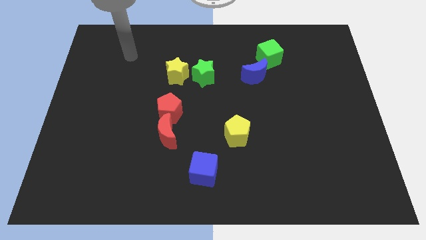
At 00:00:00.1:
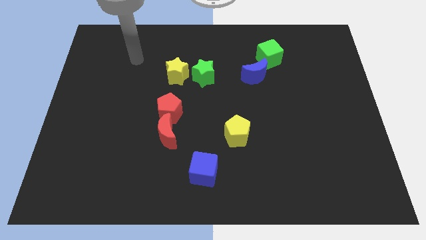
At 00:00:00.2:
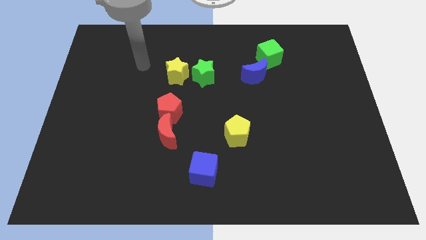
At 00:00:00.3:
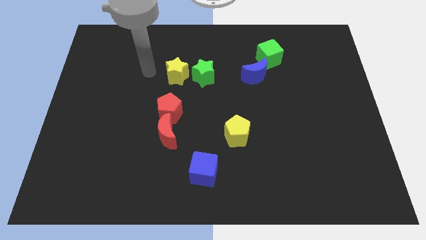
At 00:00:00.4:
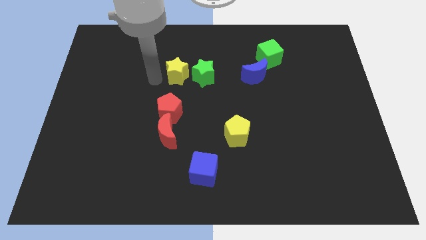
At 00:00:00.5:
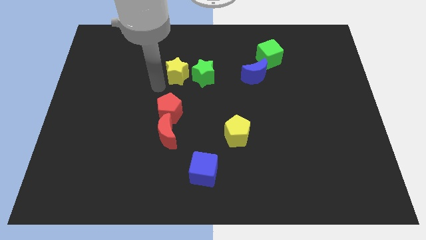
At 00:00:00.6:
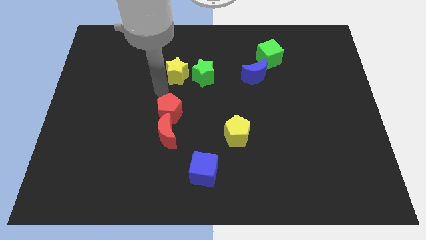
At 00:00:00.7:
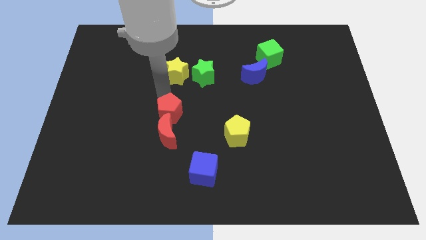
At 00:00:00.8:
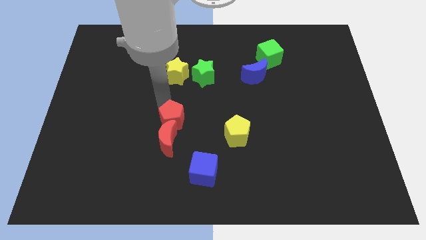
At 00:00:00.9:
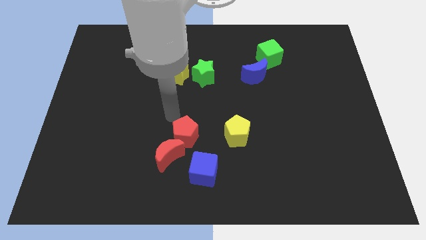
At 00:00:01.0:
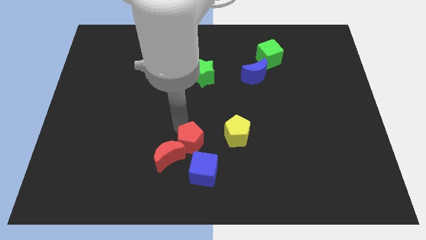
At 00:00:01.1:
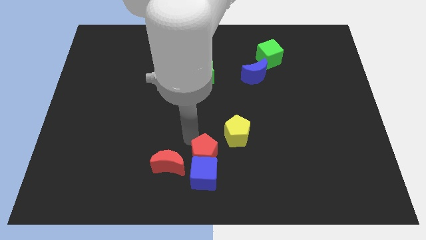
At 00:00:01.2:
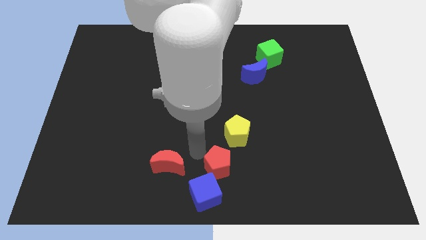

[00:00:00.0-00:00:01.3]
move the red moon away from the red pentagon

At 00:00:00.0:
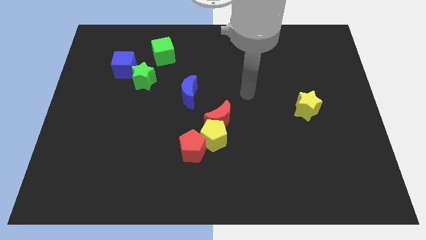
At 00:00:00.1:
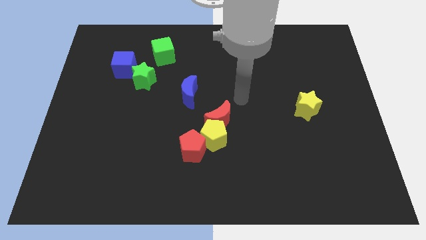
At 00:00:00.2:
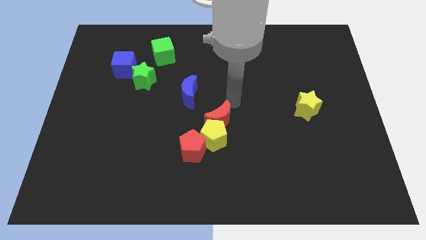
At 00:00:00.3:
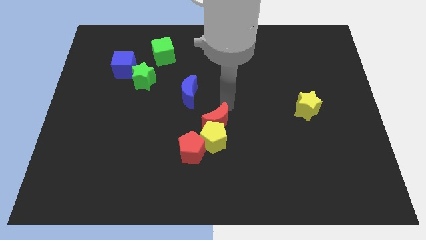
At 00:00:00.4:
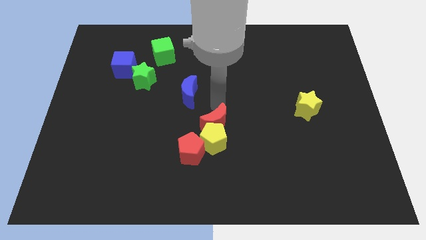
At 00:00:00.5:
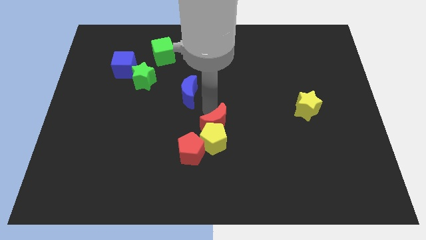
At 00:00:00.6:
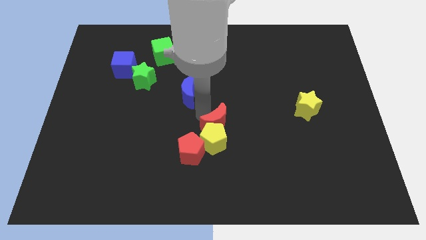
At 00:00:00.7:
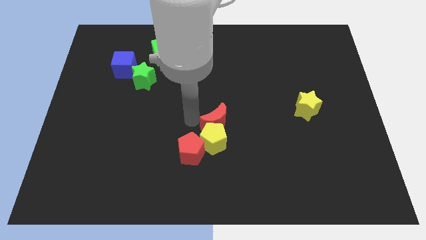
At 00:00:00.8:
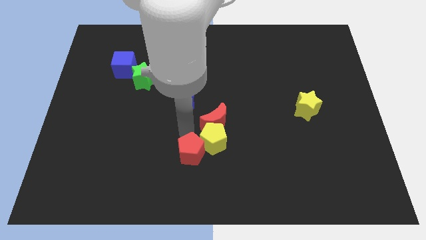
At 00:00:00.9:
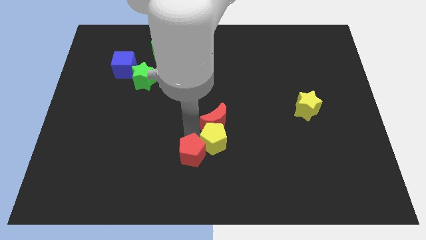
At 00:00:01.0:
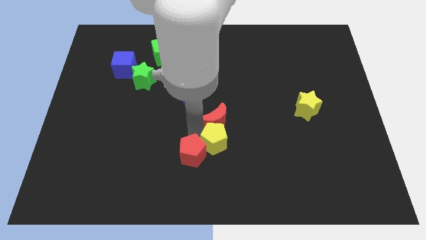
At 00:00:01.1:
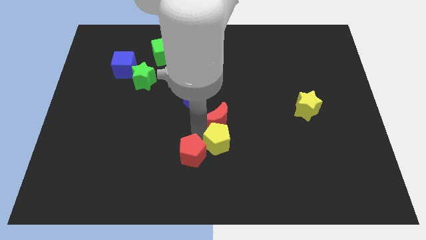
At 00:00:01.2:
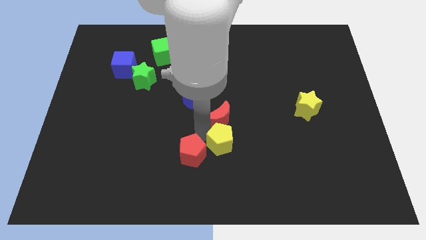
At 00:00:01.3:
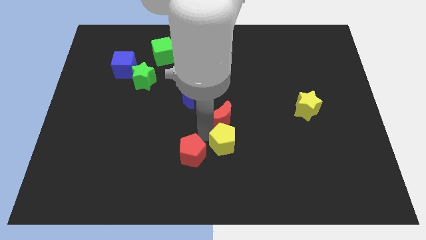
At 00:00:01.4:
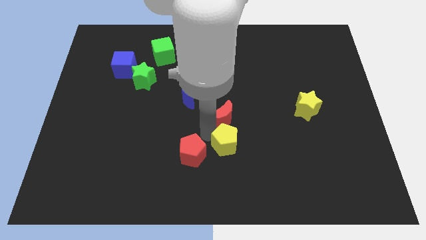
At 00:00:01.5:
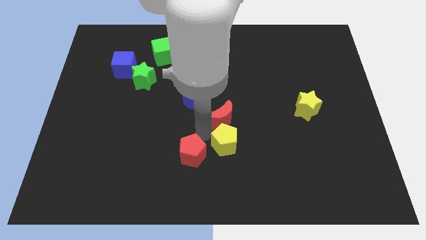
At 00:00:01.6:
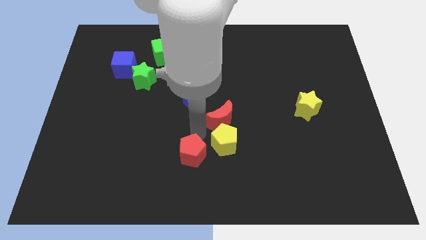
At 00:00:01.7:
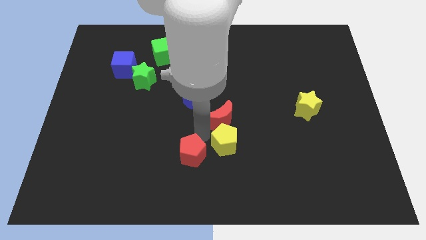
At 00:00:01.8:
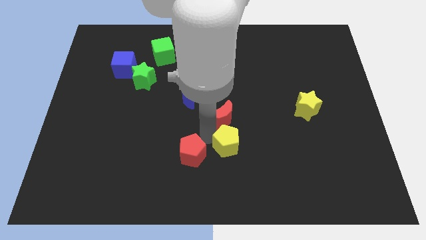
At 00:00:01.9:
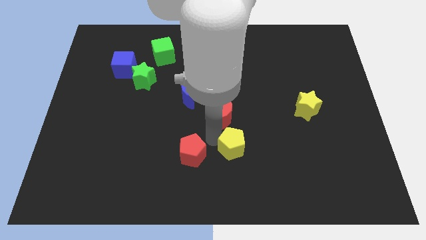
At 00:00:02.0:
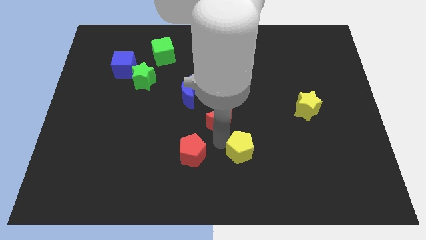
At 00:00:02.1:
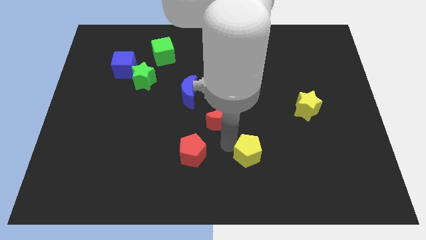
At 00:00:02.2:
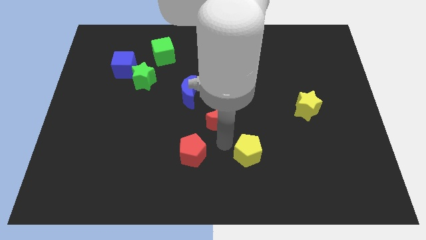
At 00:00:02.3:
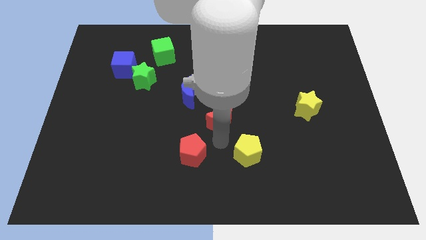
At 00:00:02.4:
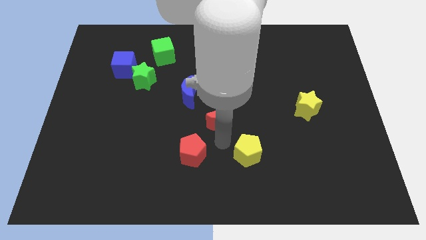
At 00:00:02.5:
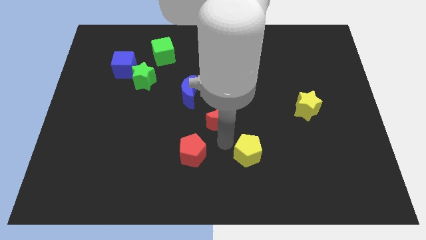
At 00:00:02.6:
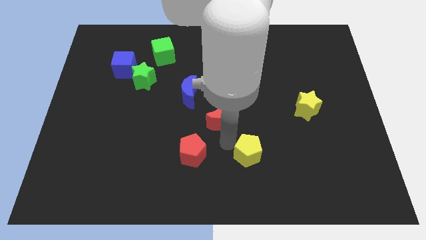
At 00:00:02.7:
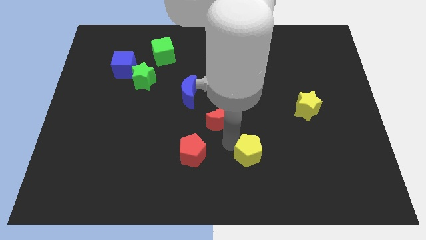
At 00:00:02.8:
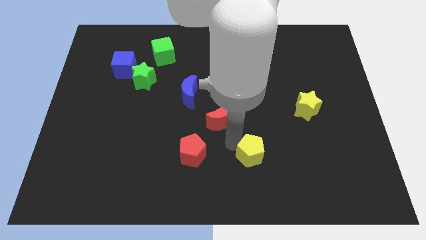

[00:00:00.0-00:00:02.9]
separate the yellow pentagon from the red moon and red pentagon

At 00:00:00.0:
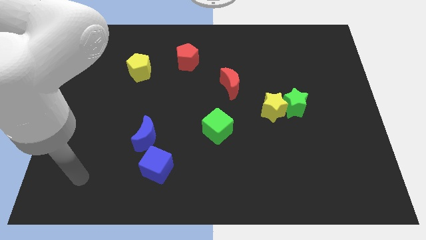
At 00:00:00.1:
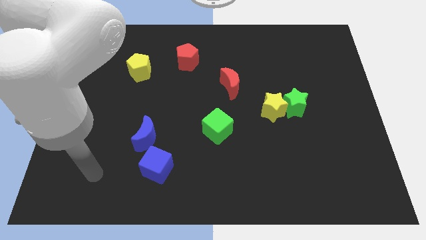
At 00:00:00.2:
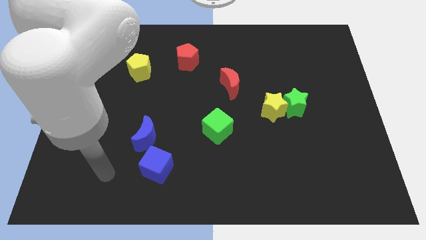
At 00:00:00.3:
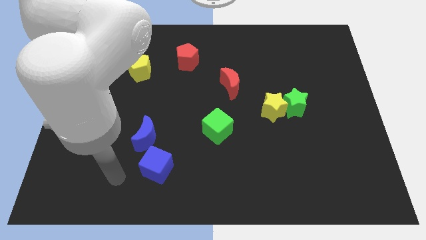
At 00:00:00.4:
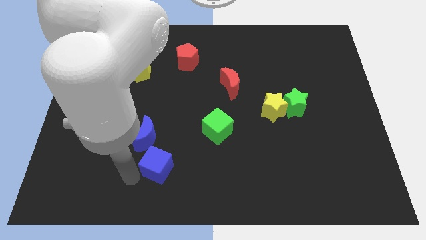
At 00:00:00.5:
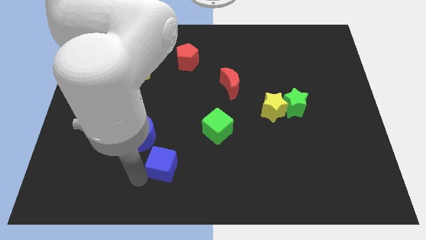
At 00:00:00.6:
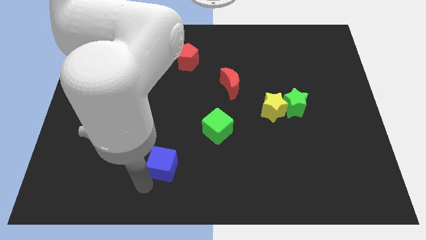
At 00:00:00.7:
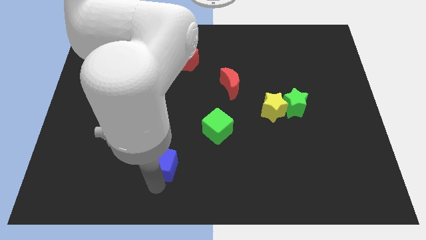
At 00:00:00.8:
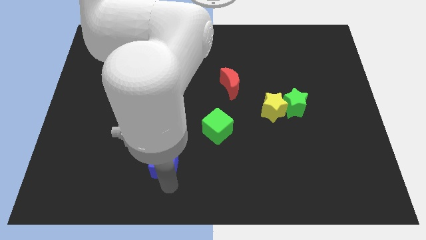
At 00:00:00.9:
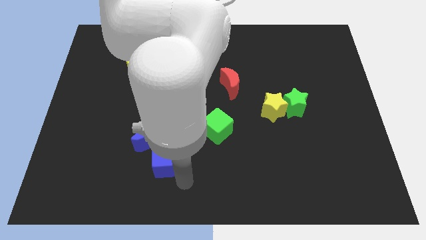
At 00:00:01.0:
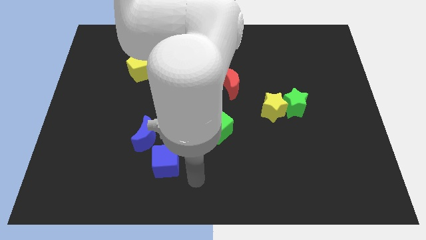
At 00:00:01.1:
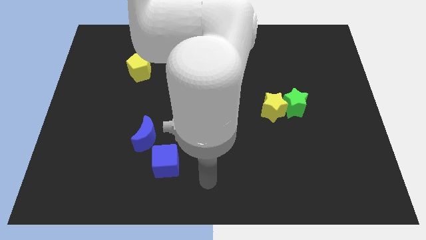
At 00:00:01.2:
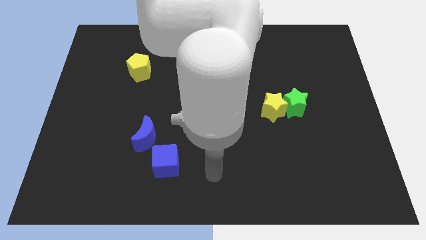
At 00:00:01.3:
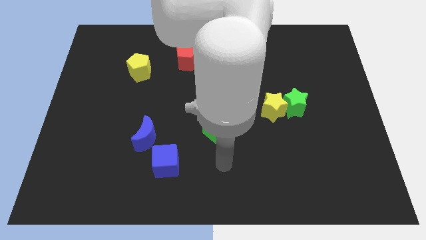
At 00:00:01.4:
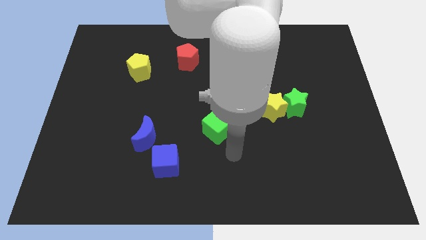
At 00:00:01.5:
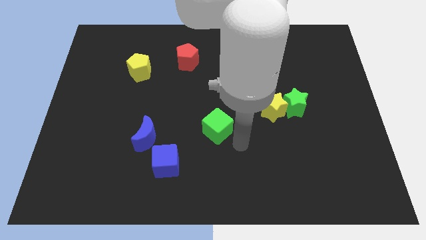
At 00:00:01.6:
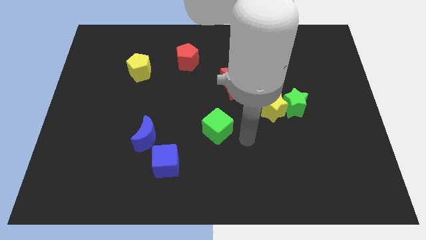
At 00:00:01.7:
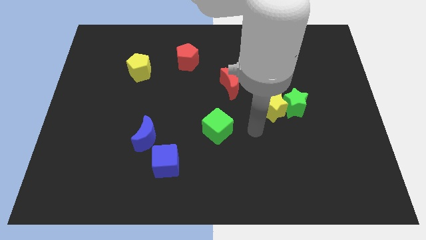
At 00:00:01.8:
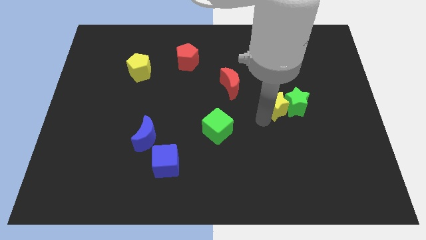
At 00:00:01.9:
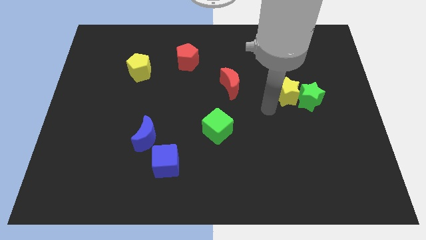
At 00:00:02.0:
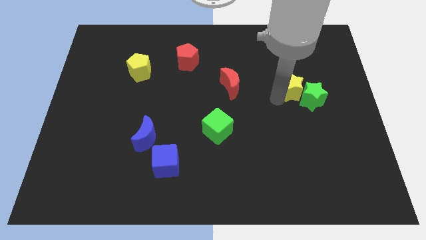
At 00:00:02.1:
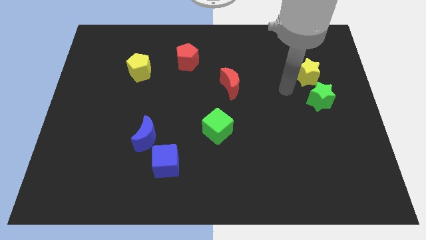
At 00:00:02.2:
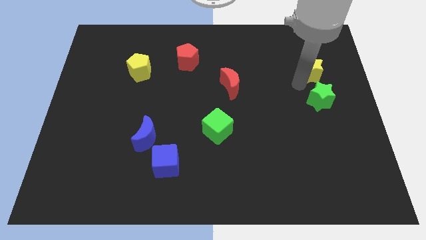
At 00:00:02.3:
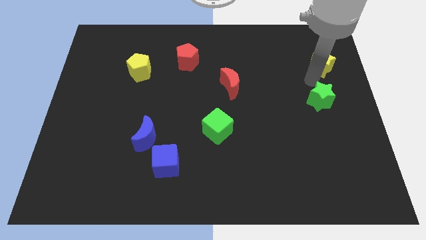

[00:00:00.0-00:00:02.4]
move the green star away from the yellow star

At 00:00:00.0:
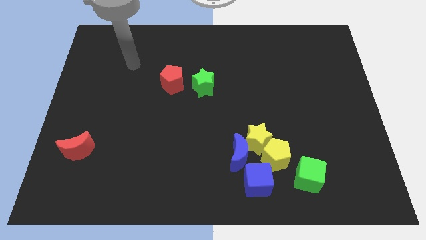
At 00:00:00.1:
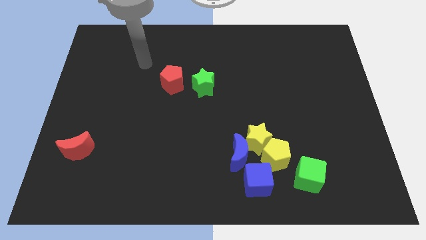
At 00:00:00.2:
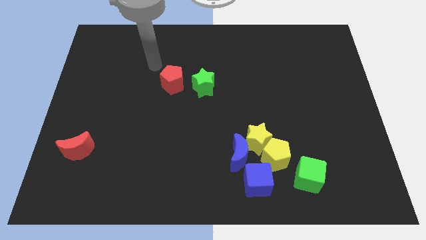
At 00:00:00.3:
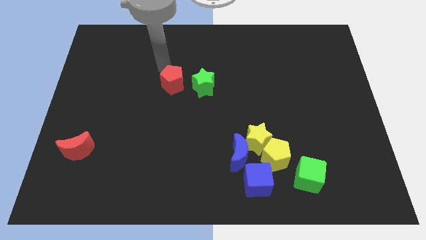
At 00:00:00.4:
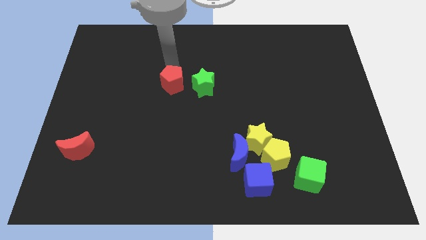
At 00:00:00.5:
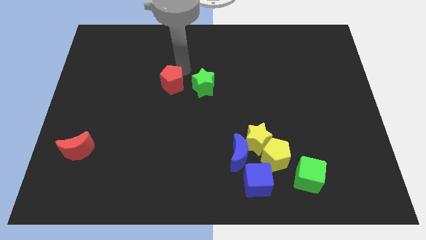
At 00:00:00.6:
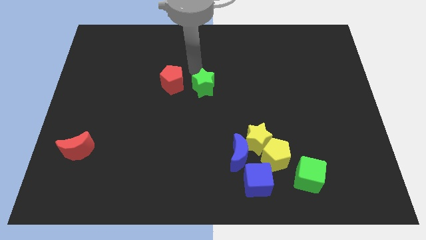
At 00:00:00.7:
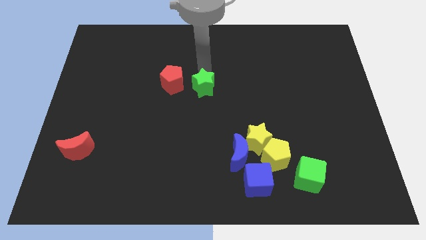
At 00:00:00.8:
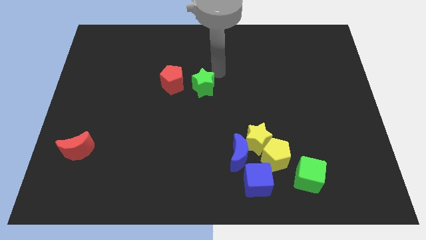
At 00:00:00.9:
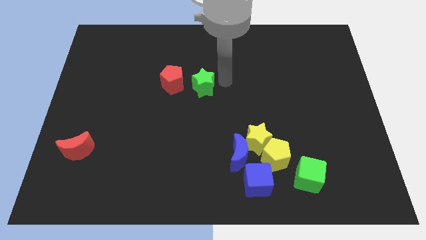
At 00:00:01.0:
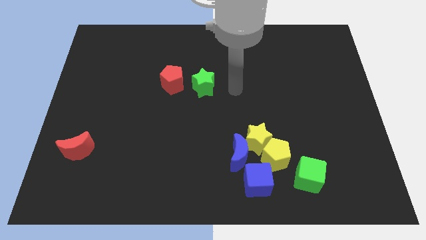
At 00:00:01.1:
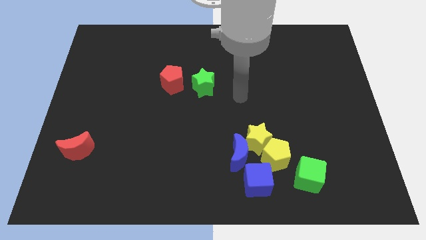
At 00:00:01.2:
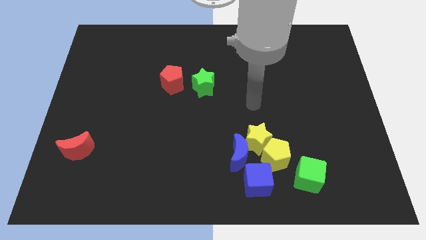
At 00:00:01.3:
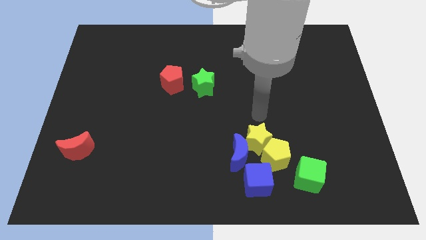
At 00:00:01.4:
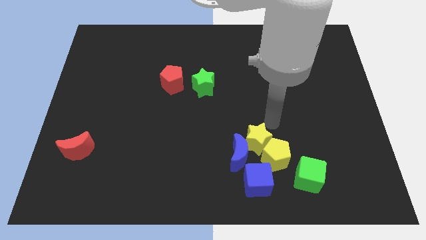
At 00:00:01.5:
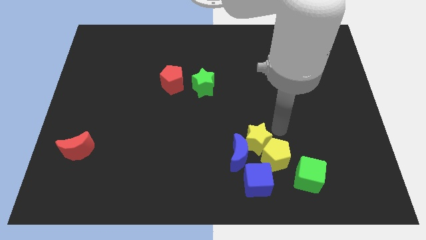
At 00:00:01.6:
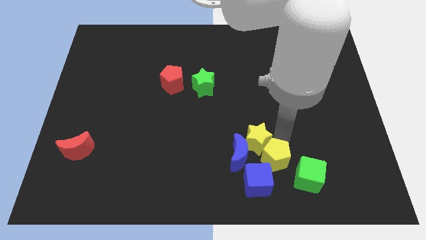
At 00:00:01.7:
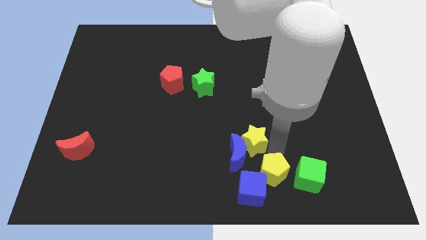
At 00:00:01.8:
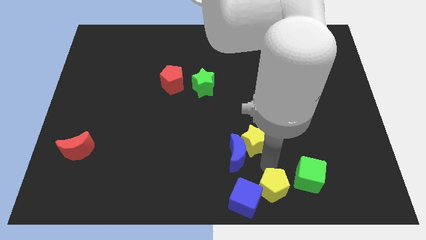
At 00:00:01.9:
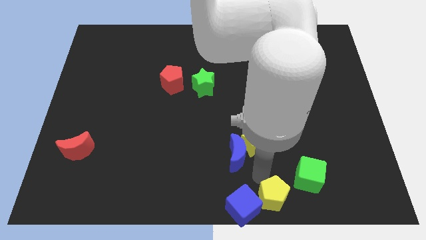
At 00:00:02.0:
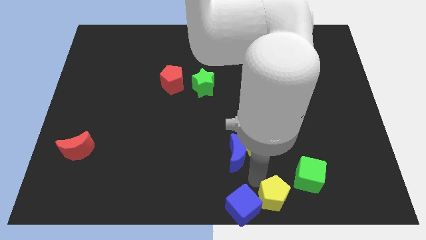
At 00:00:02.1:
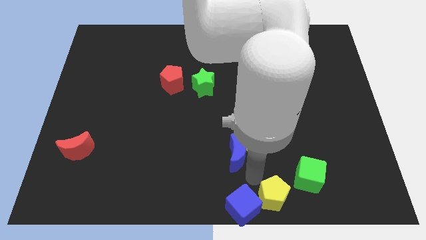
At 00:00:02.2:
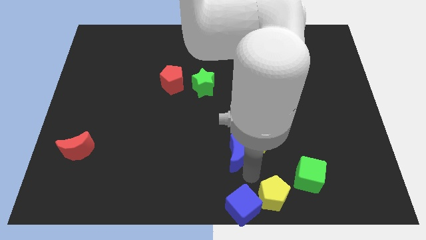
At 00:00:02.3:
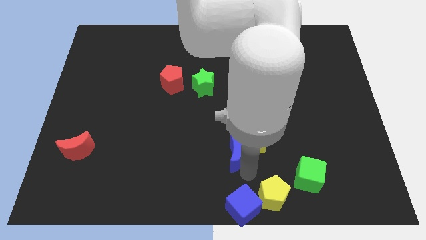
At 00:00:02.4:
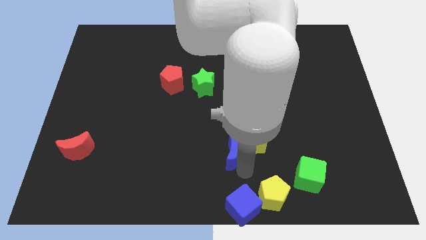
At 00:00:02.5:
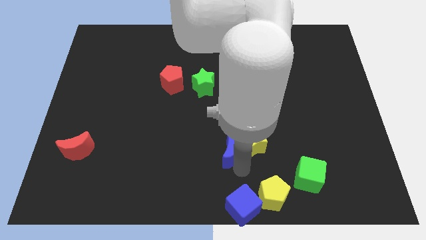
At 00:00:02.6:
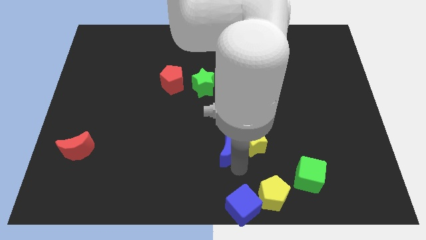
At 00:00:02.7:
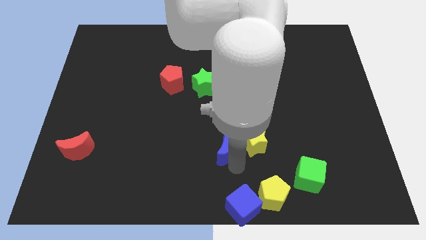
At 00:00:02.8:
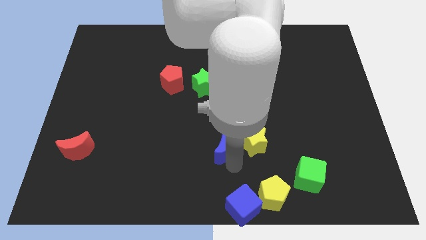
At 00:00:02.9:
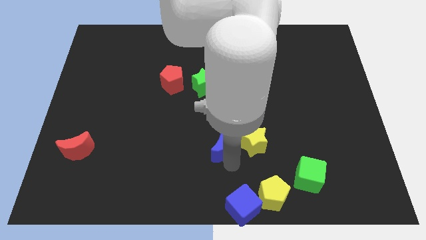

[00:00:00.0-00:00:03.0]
move the blue moon away from the yellow star, blue cube, and yellow pentagon
